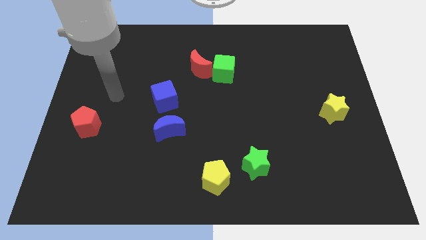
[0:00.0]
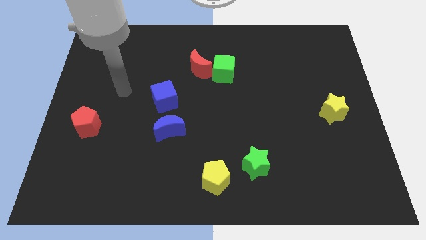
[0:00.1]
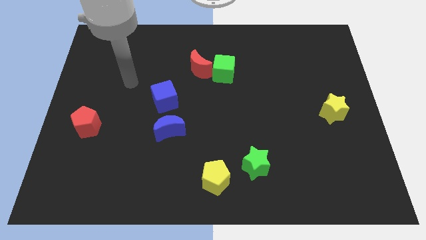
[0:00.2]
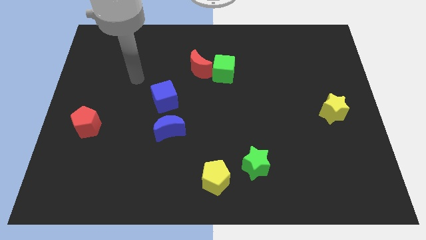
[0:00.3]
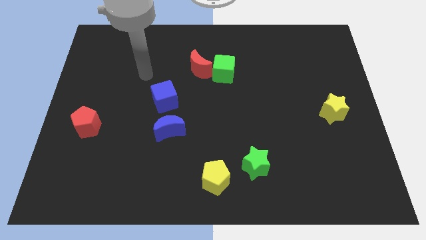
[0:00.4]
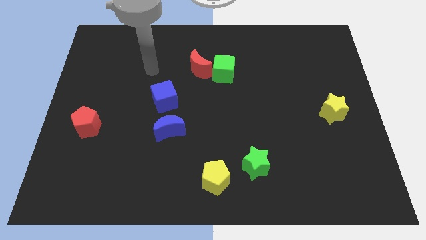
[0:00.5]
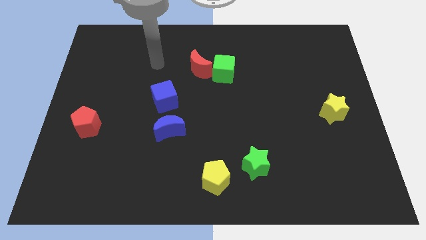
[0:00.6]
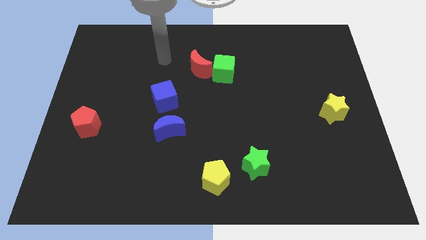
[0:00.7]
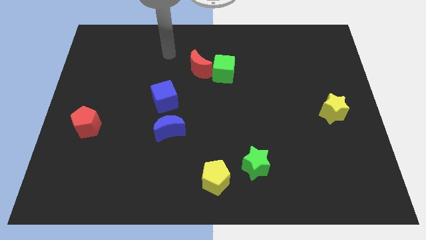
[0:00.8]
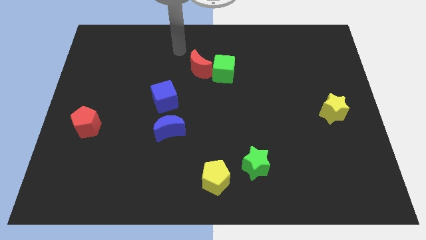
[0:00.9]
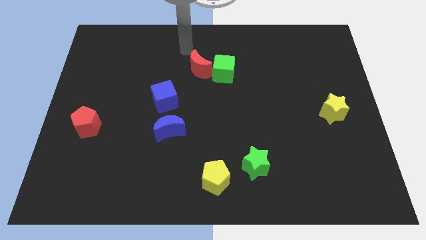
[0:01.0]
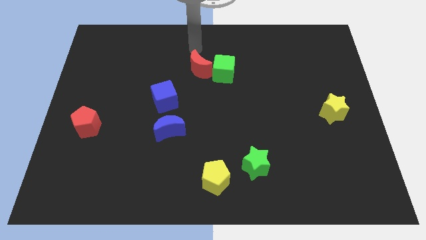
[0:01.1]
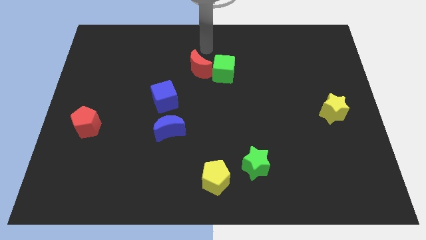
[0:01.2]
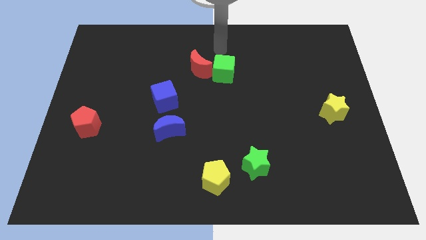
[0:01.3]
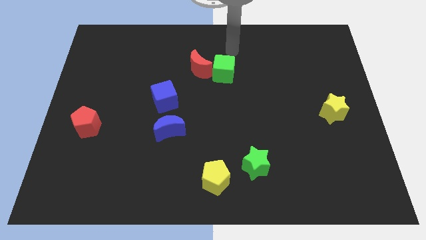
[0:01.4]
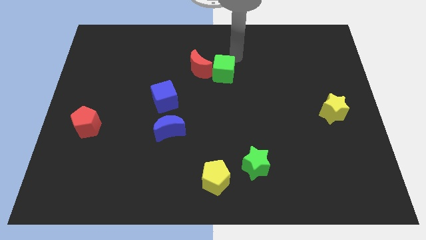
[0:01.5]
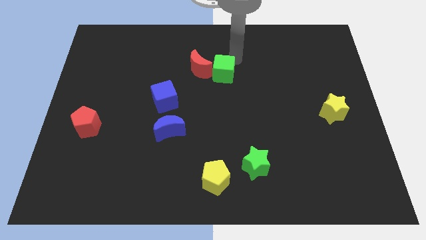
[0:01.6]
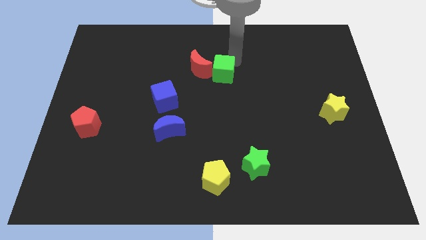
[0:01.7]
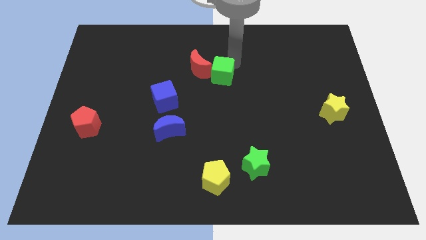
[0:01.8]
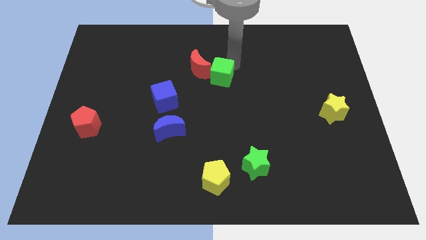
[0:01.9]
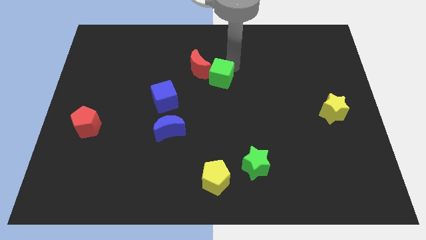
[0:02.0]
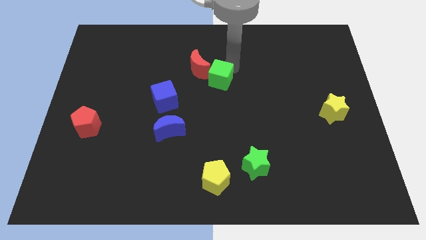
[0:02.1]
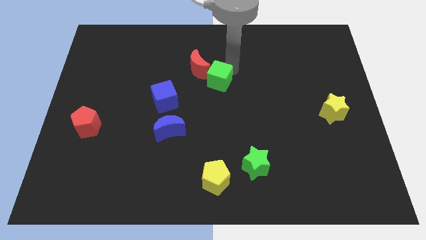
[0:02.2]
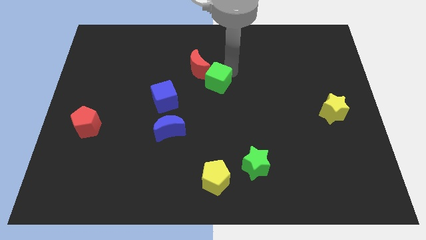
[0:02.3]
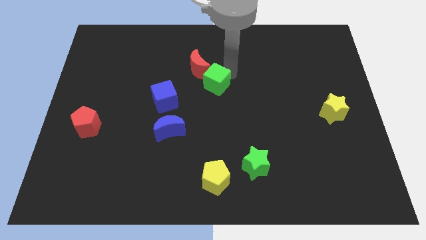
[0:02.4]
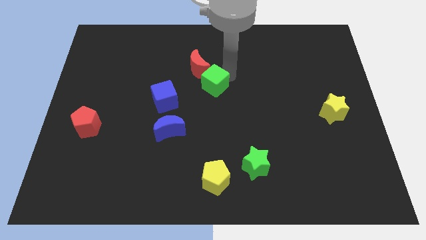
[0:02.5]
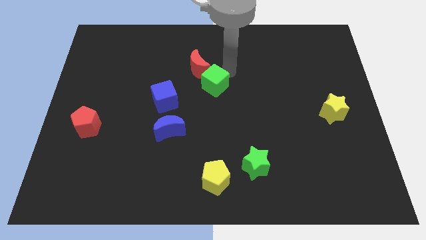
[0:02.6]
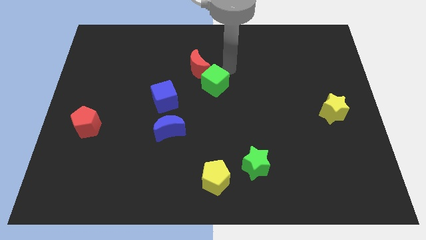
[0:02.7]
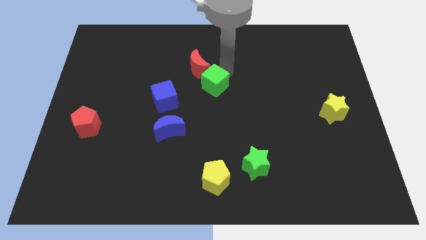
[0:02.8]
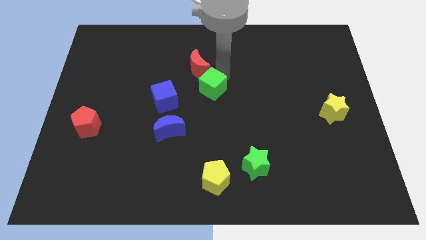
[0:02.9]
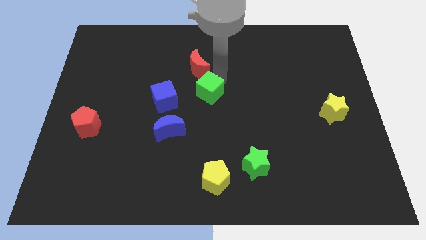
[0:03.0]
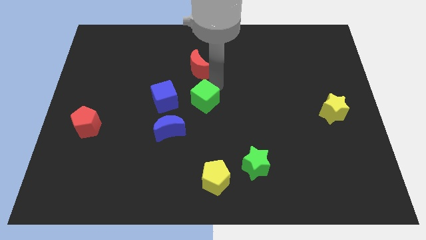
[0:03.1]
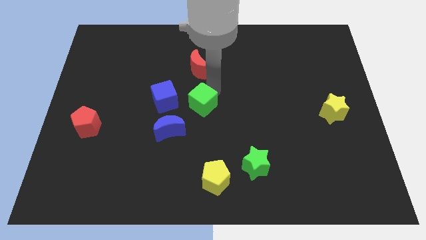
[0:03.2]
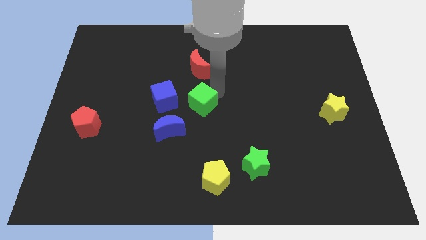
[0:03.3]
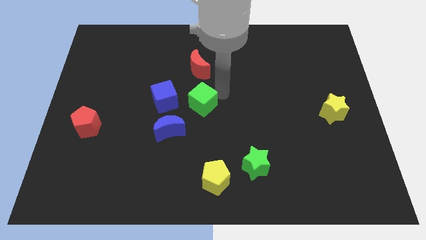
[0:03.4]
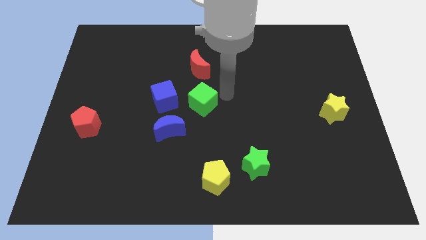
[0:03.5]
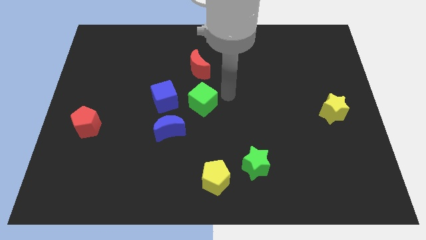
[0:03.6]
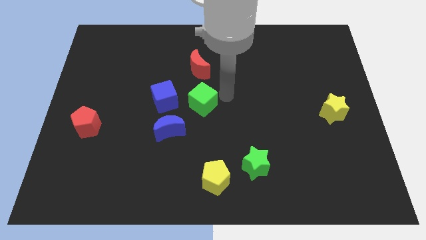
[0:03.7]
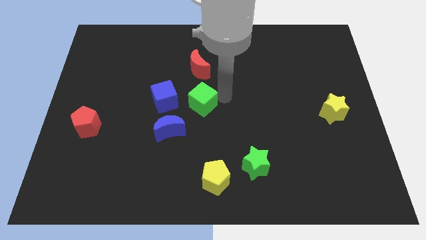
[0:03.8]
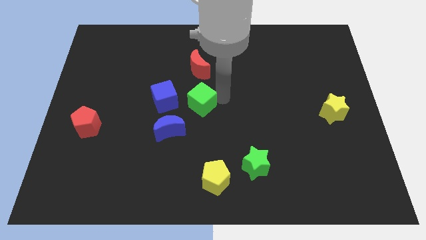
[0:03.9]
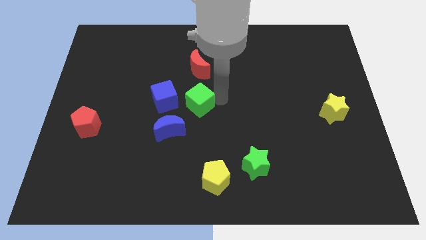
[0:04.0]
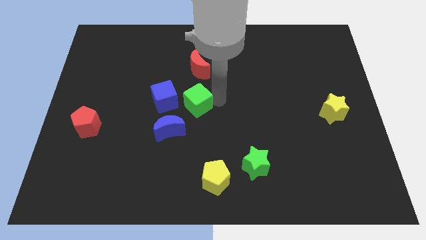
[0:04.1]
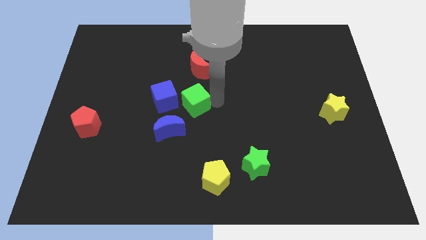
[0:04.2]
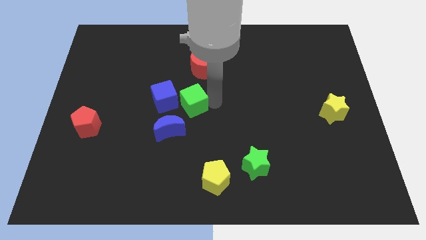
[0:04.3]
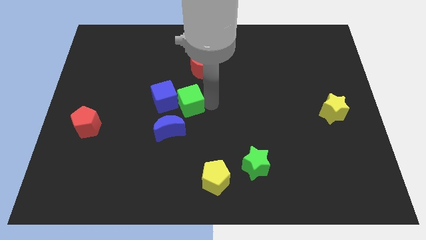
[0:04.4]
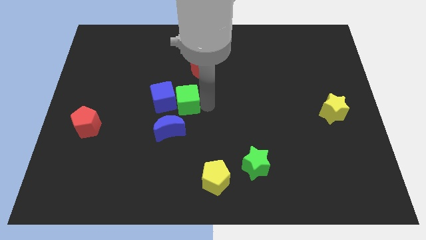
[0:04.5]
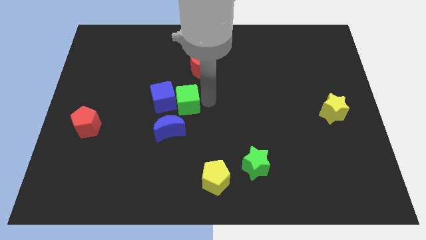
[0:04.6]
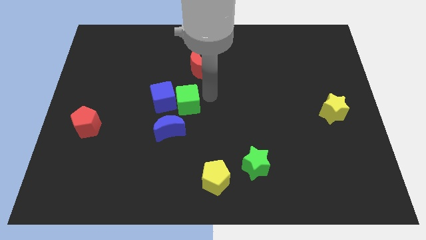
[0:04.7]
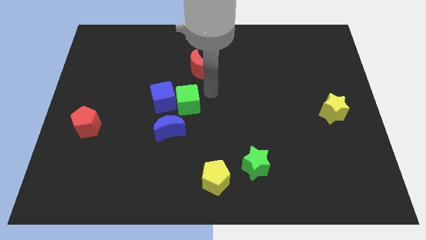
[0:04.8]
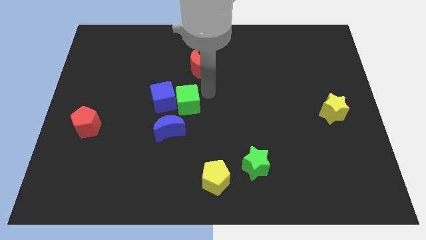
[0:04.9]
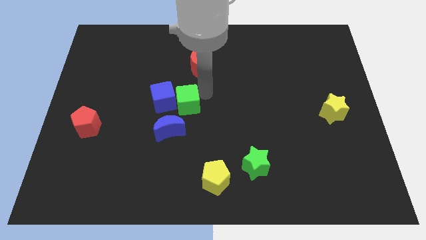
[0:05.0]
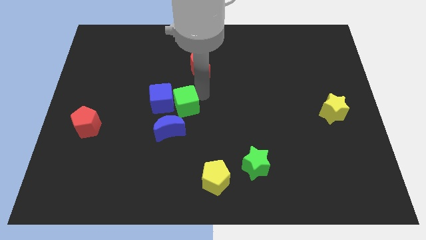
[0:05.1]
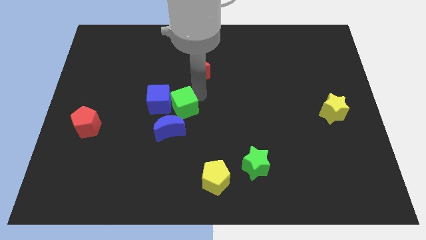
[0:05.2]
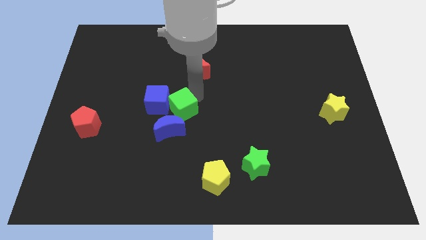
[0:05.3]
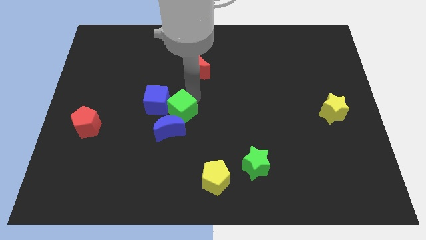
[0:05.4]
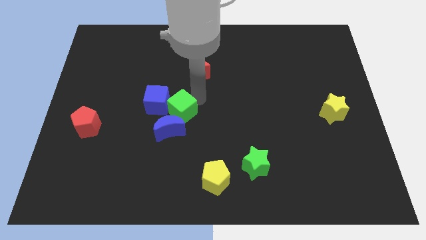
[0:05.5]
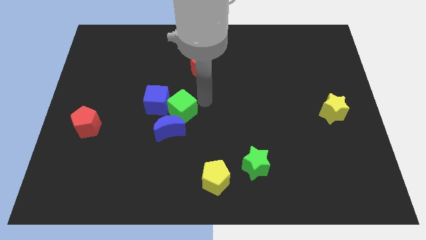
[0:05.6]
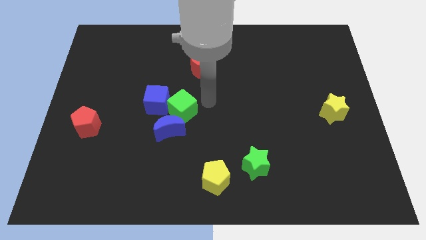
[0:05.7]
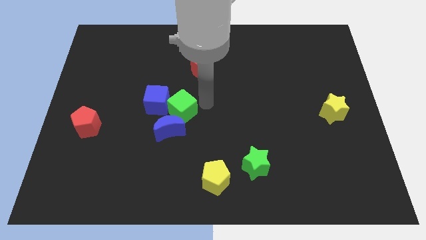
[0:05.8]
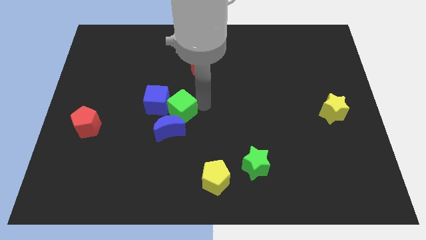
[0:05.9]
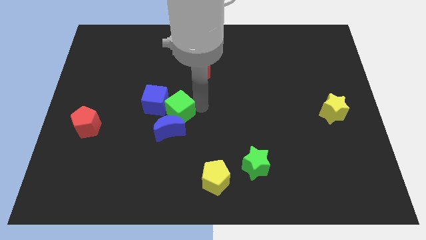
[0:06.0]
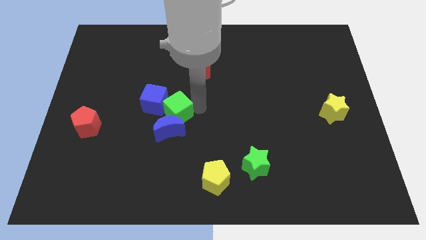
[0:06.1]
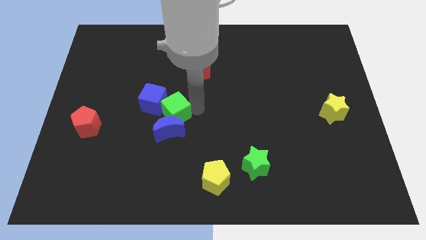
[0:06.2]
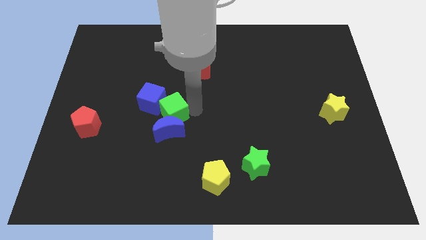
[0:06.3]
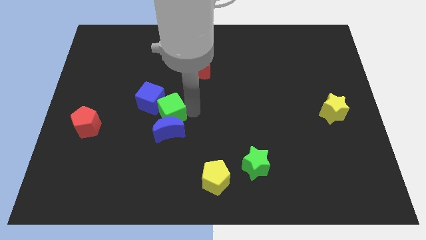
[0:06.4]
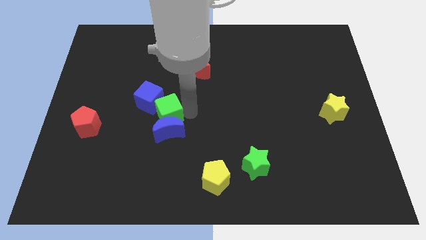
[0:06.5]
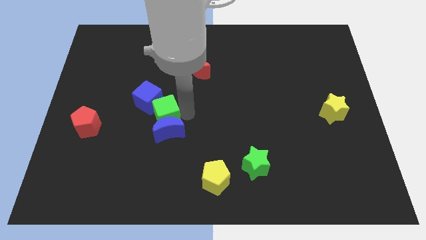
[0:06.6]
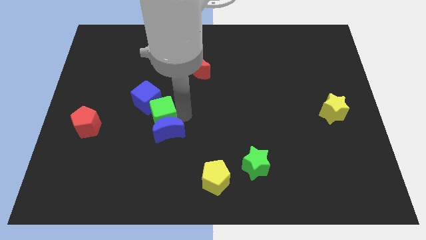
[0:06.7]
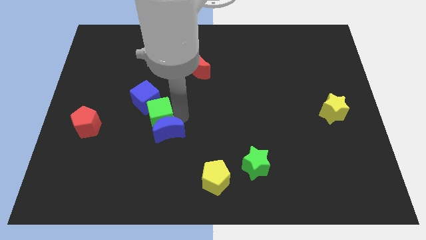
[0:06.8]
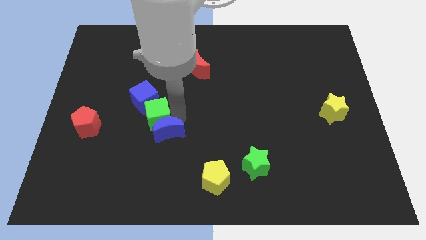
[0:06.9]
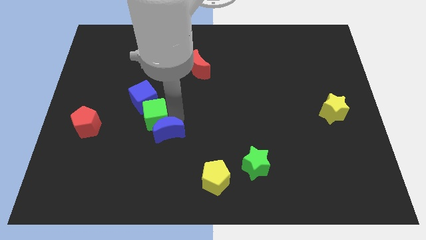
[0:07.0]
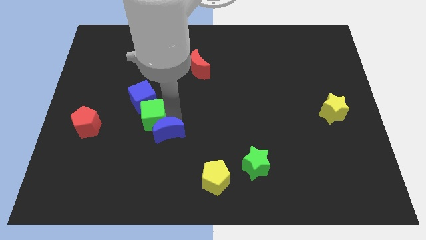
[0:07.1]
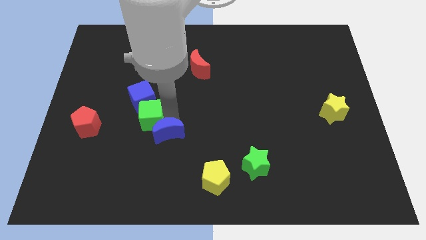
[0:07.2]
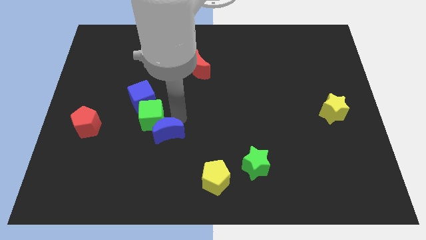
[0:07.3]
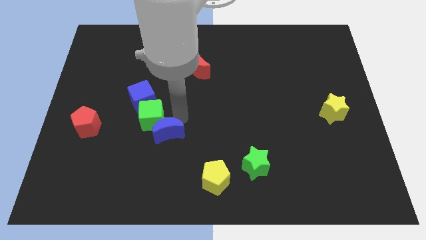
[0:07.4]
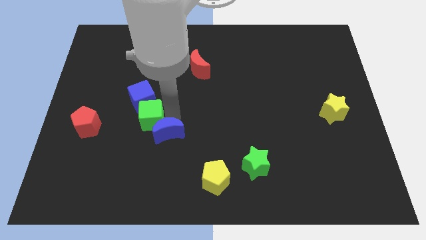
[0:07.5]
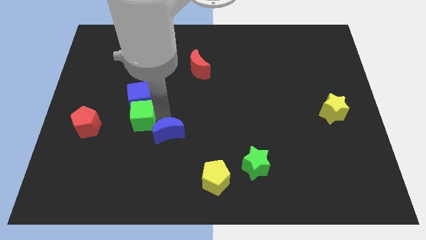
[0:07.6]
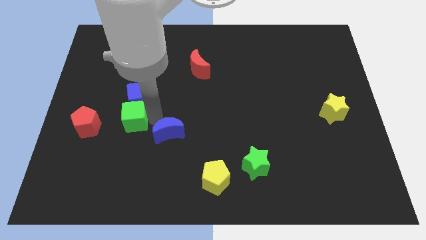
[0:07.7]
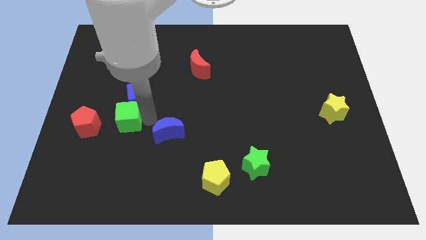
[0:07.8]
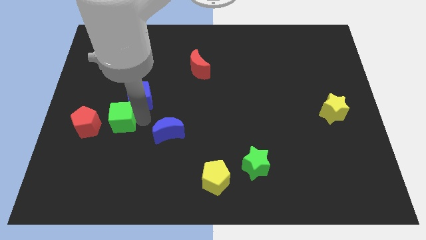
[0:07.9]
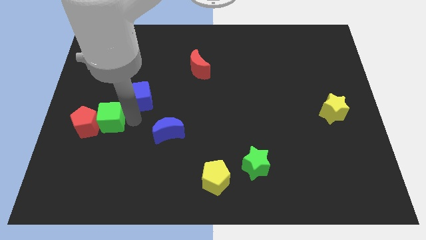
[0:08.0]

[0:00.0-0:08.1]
push the green cube next to the red pentagon
